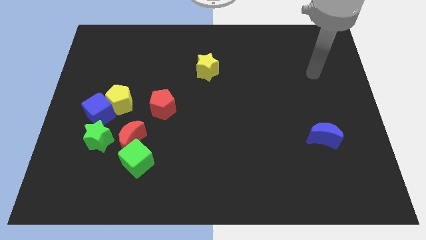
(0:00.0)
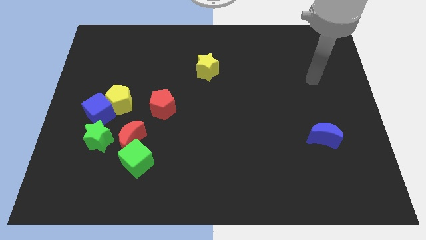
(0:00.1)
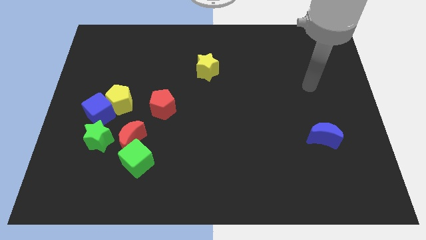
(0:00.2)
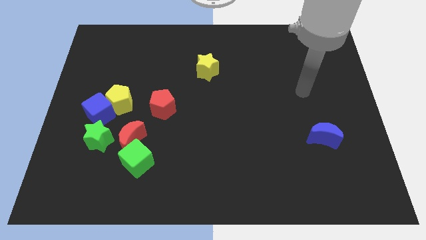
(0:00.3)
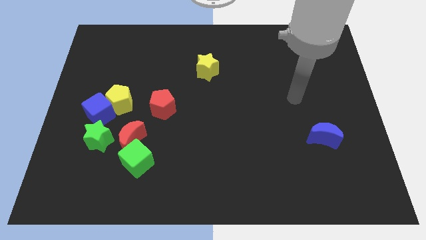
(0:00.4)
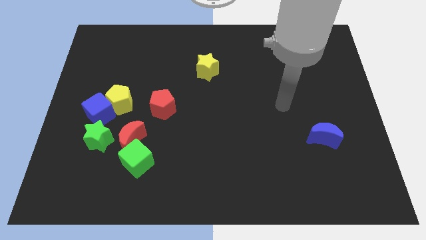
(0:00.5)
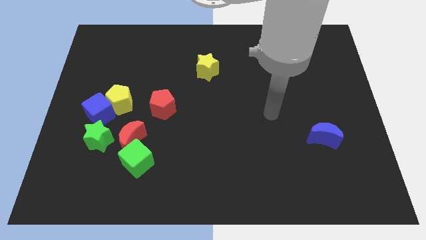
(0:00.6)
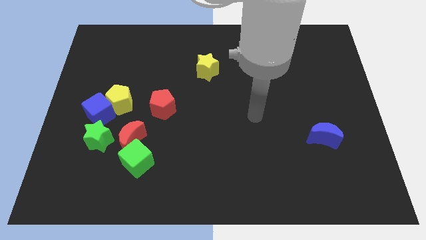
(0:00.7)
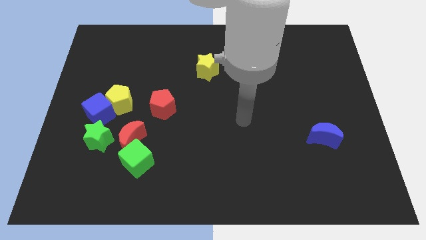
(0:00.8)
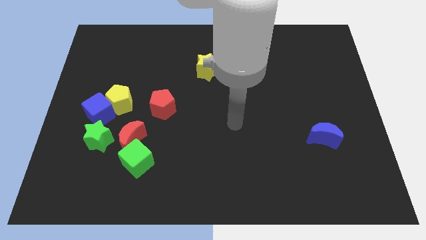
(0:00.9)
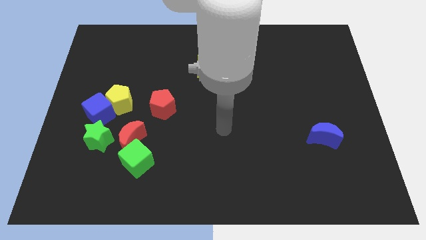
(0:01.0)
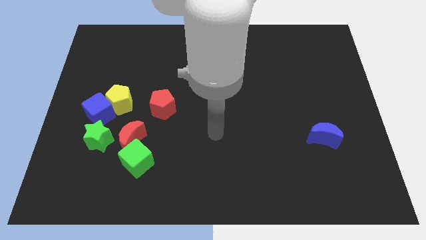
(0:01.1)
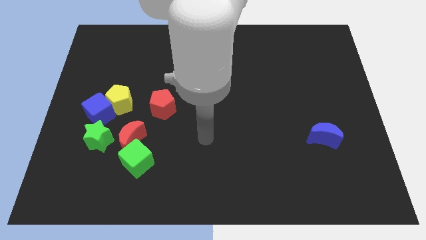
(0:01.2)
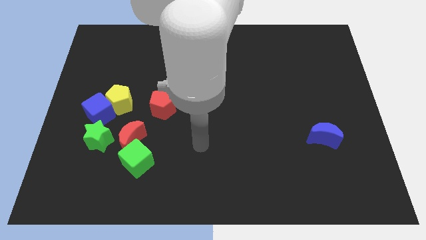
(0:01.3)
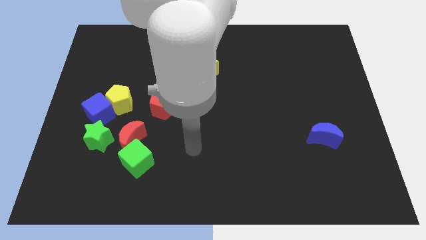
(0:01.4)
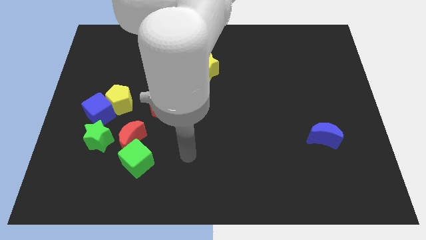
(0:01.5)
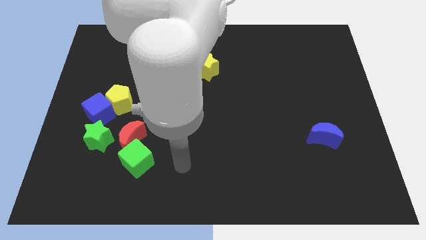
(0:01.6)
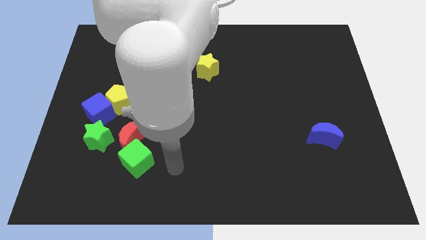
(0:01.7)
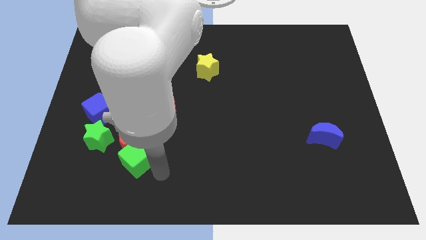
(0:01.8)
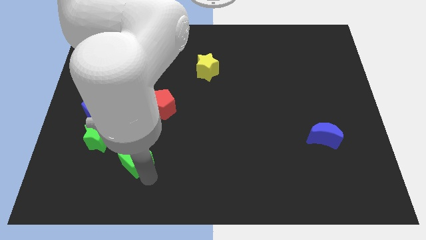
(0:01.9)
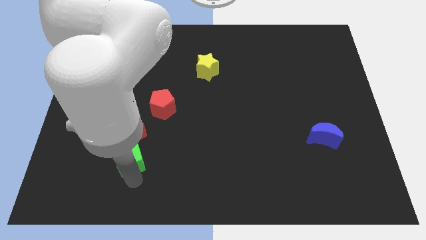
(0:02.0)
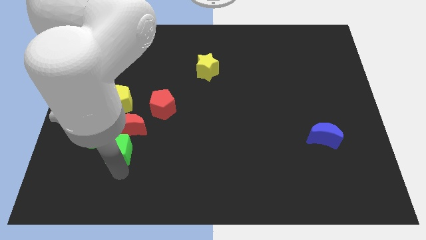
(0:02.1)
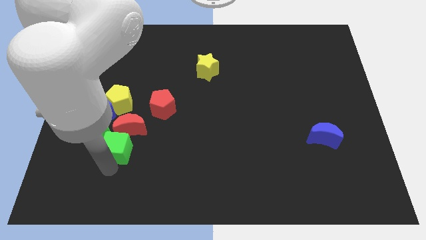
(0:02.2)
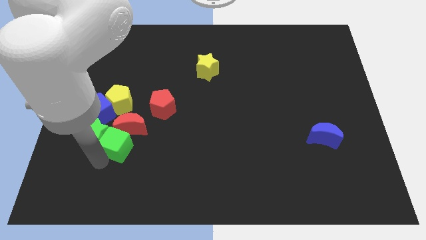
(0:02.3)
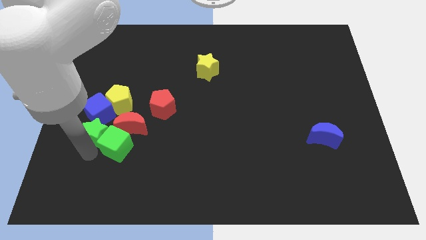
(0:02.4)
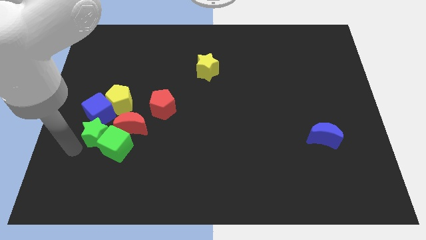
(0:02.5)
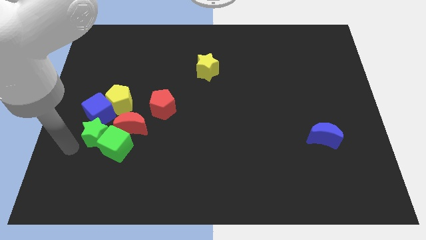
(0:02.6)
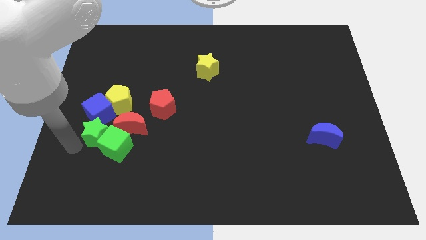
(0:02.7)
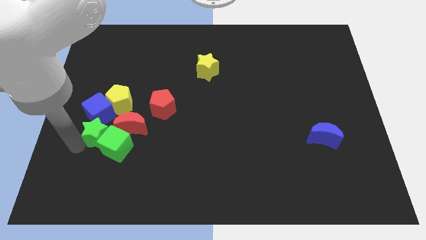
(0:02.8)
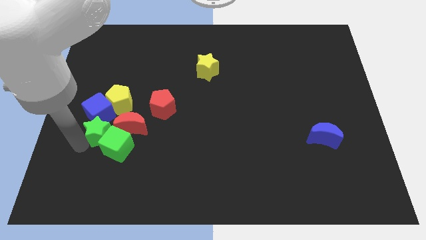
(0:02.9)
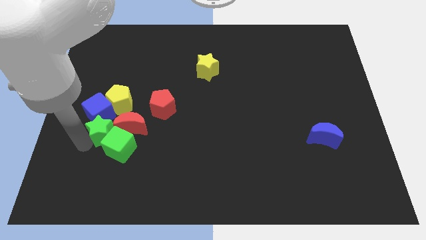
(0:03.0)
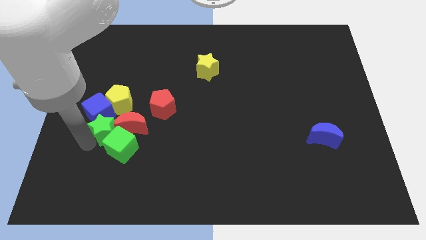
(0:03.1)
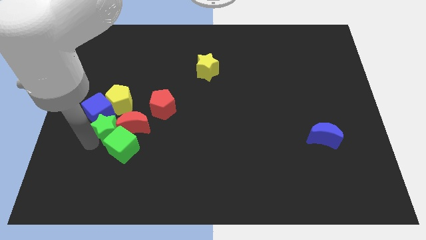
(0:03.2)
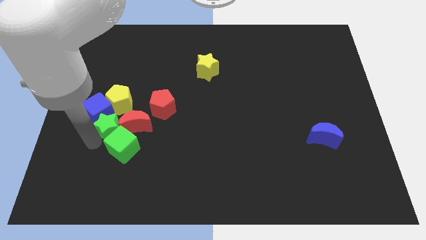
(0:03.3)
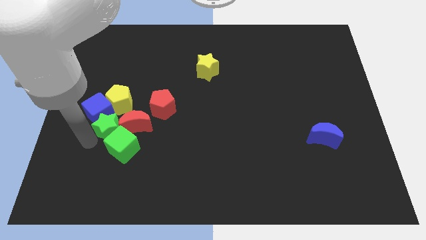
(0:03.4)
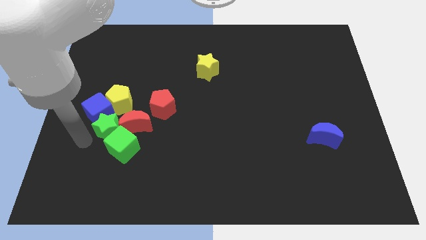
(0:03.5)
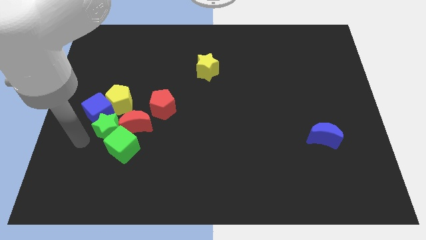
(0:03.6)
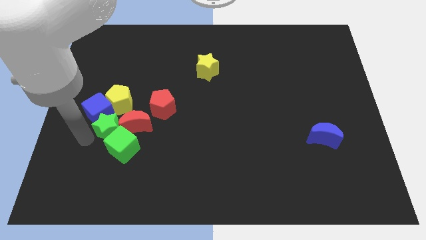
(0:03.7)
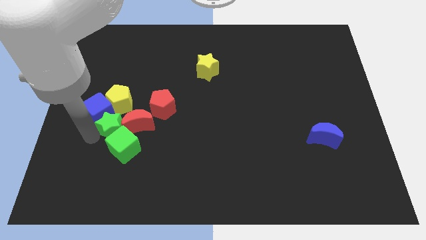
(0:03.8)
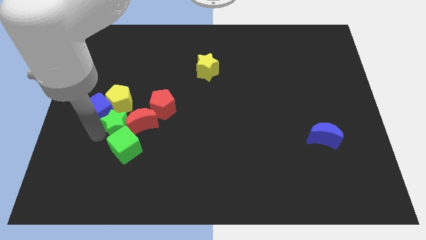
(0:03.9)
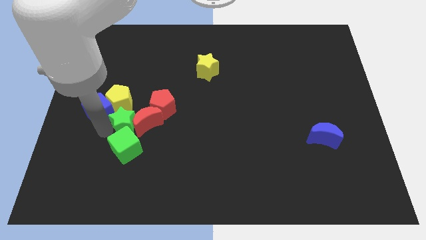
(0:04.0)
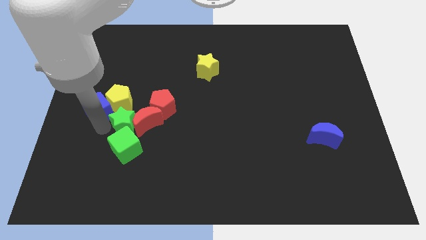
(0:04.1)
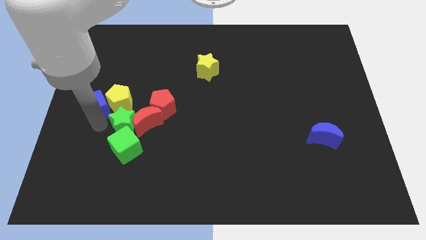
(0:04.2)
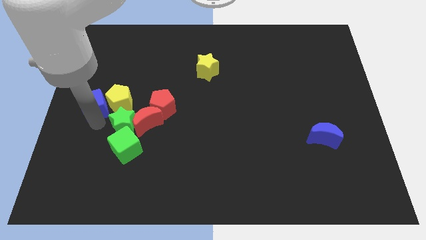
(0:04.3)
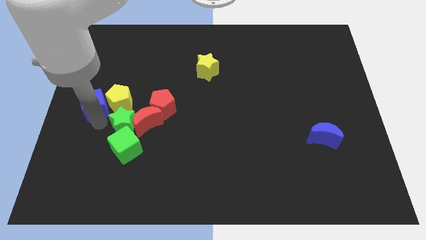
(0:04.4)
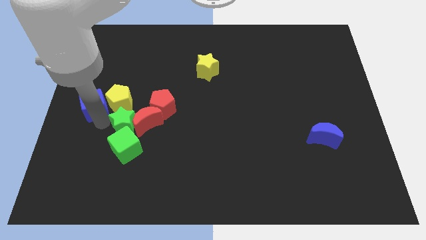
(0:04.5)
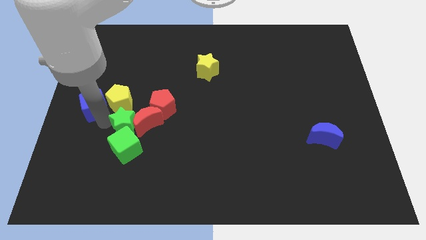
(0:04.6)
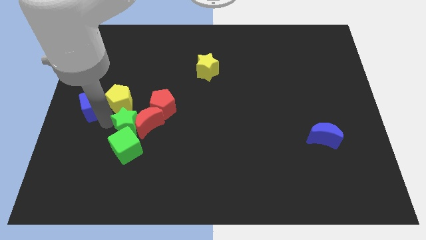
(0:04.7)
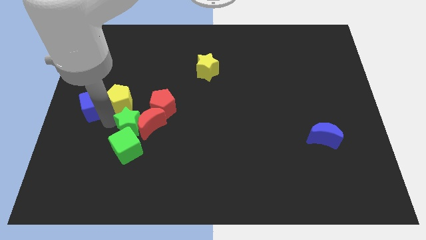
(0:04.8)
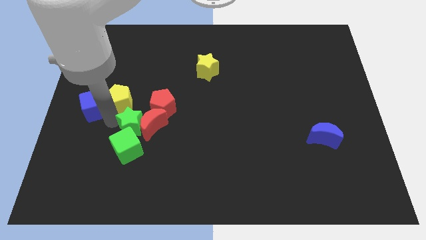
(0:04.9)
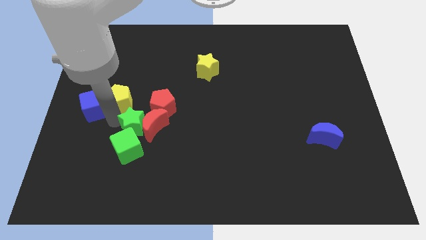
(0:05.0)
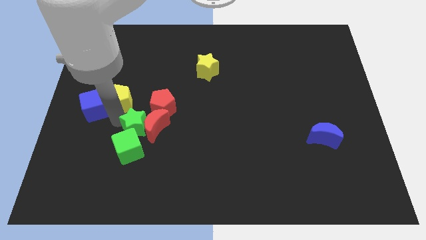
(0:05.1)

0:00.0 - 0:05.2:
slightly slide the green star right

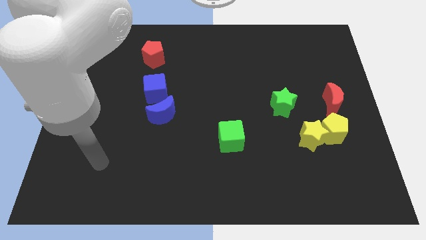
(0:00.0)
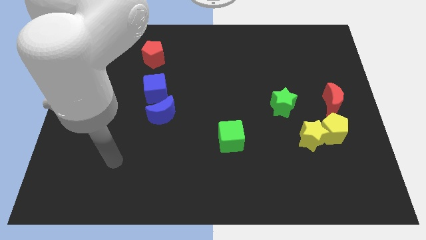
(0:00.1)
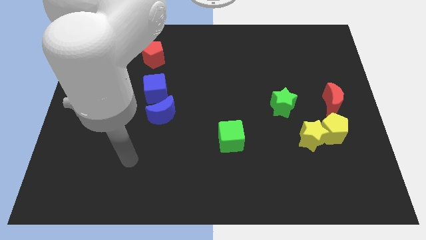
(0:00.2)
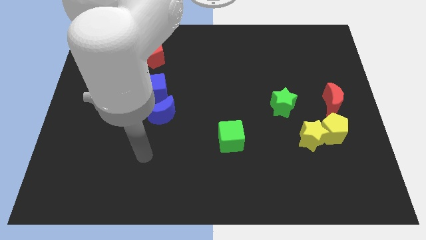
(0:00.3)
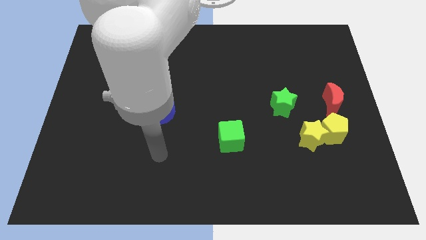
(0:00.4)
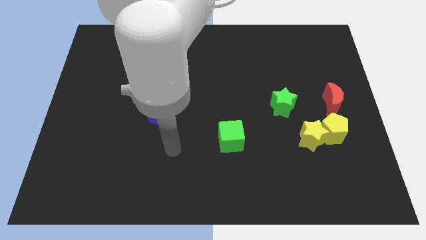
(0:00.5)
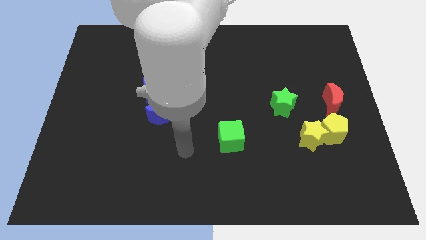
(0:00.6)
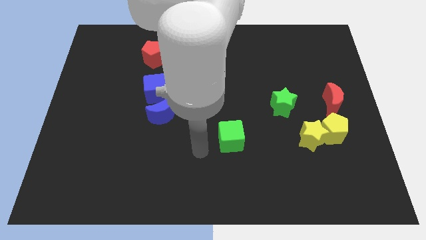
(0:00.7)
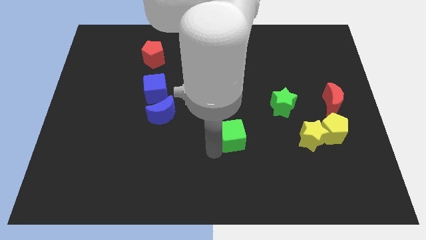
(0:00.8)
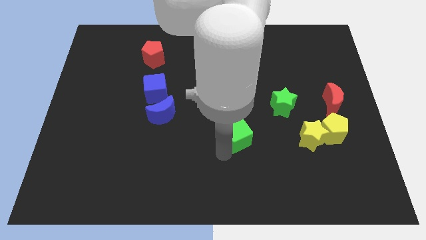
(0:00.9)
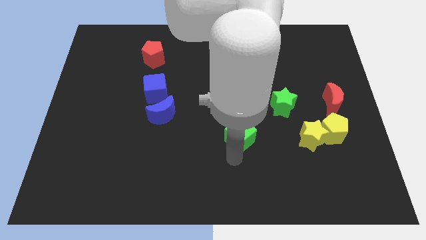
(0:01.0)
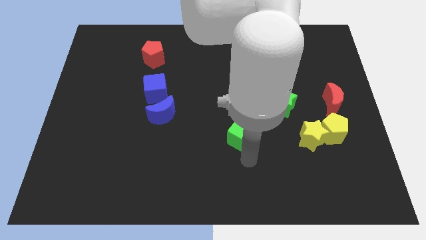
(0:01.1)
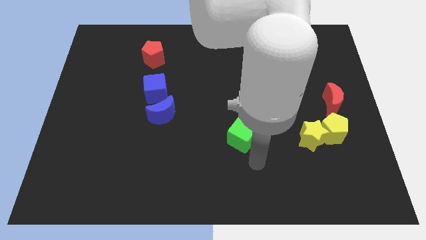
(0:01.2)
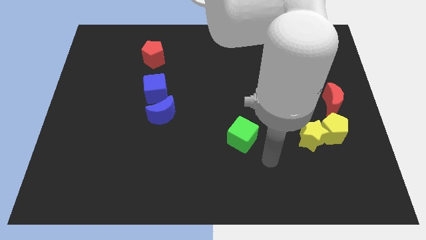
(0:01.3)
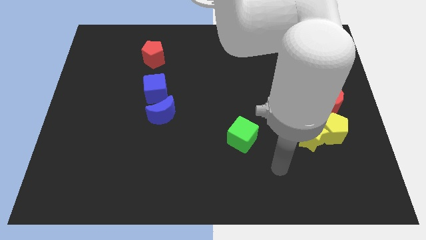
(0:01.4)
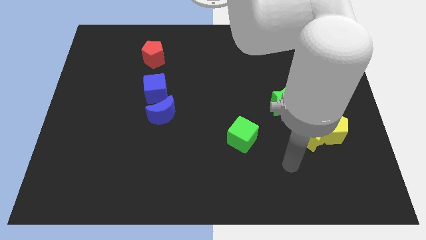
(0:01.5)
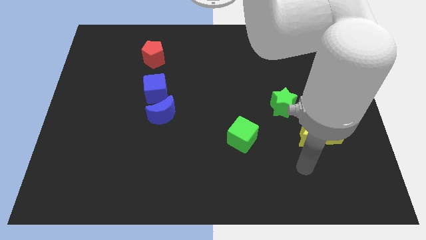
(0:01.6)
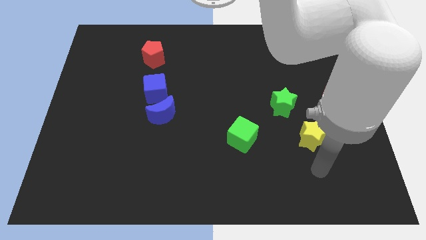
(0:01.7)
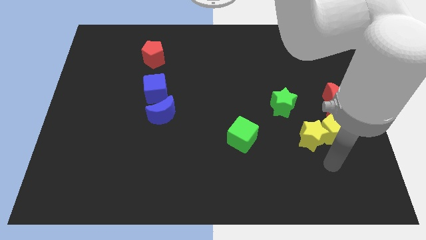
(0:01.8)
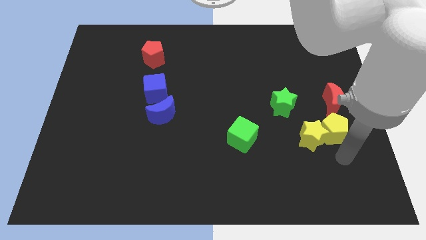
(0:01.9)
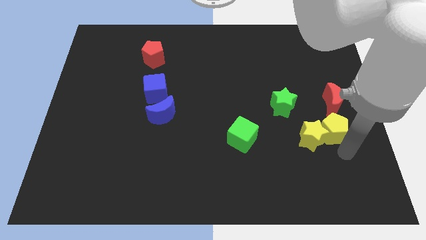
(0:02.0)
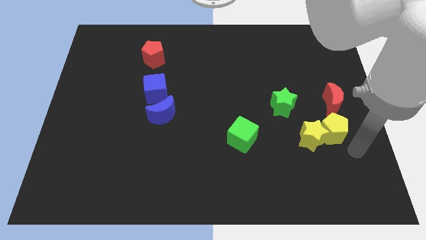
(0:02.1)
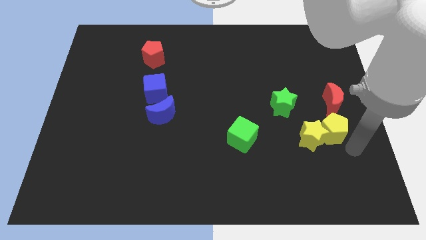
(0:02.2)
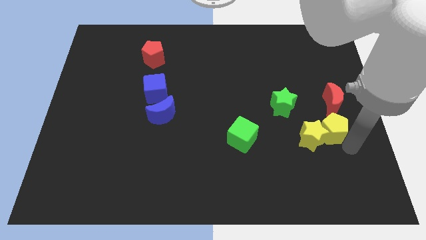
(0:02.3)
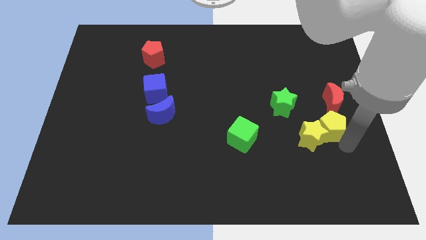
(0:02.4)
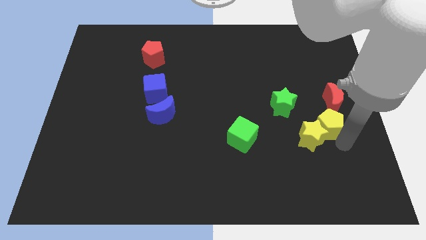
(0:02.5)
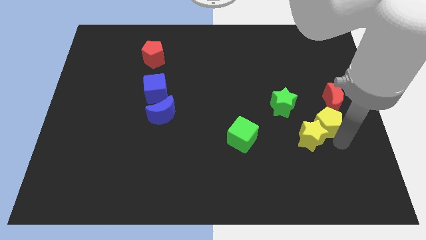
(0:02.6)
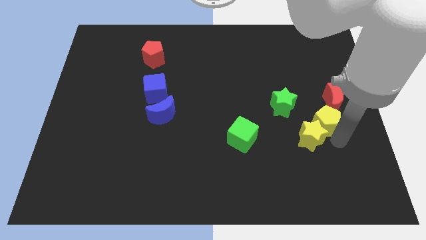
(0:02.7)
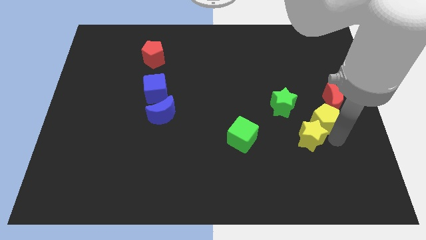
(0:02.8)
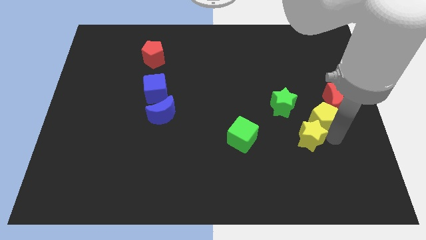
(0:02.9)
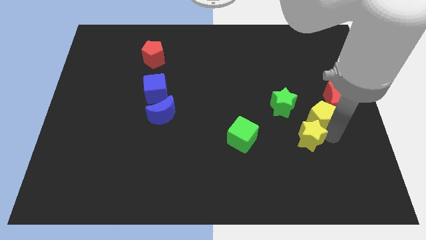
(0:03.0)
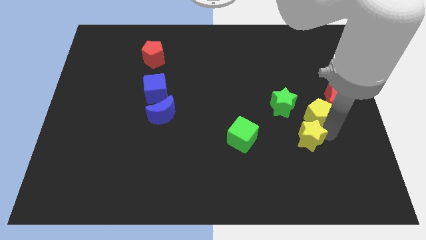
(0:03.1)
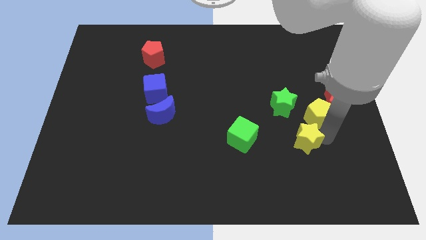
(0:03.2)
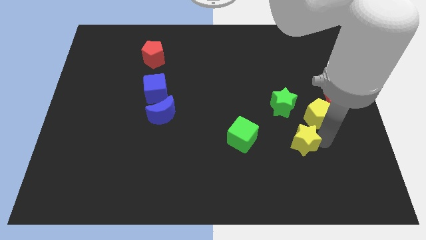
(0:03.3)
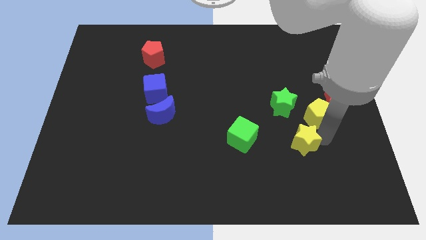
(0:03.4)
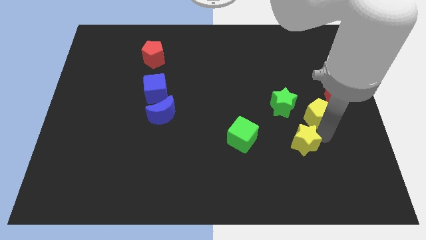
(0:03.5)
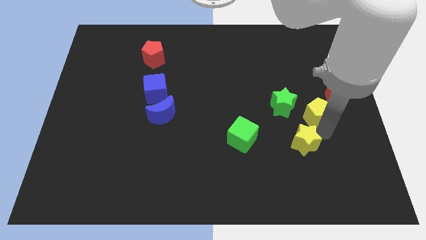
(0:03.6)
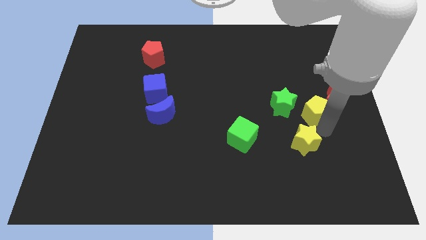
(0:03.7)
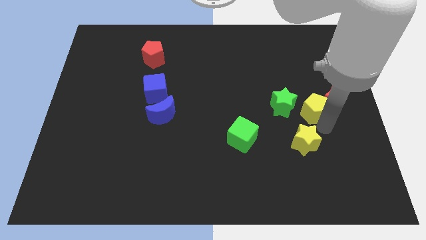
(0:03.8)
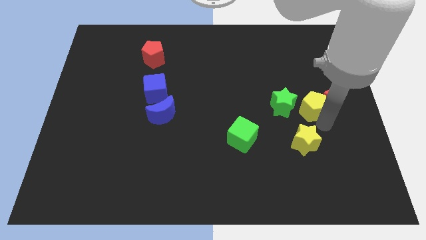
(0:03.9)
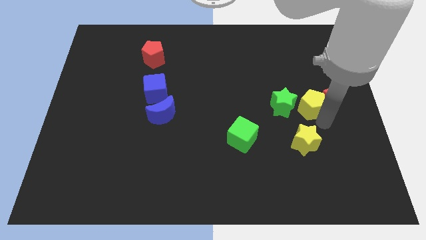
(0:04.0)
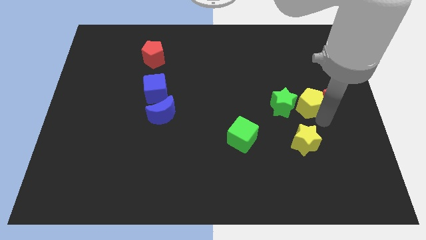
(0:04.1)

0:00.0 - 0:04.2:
push the yellow pentagon somewhat upwards
